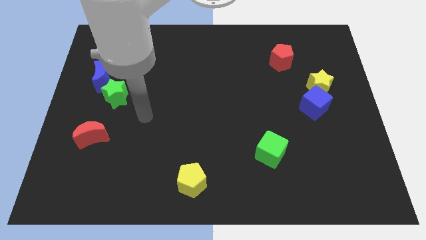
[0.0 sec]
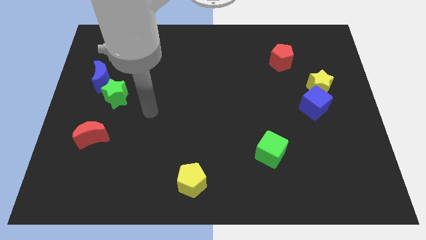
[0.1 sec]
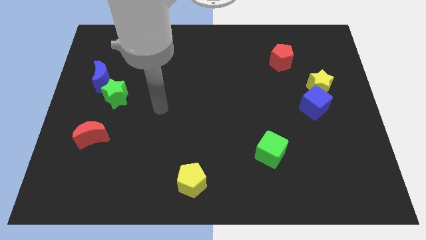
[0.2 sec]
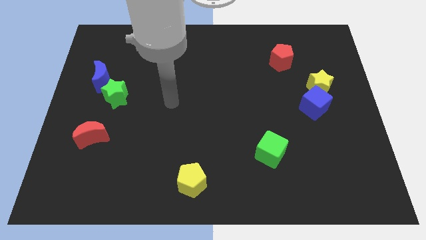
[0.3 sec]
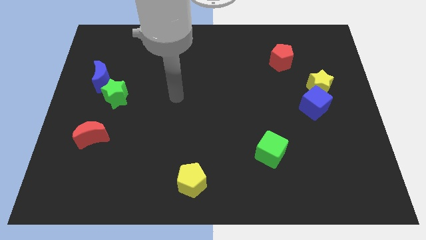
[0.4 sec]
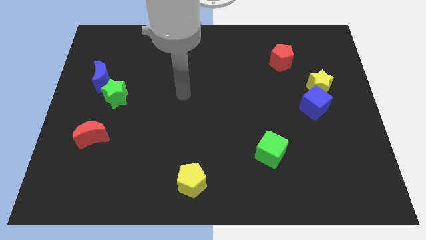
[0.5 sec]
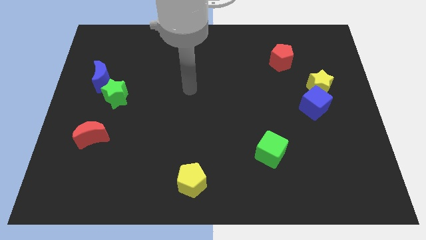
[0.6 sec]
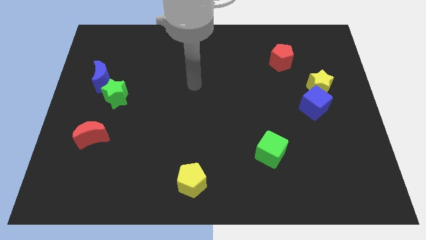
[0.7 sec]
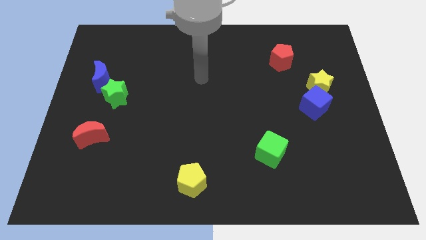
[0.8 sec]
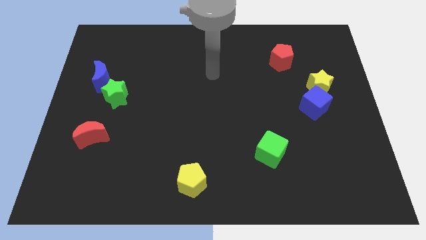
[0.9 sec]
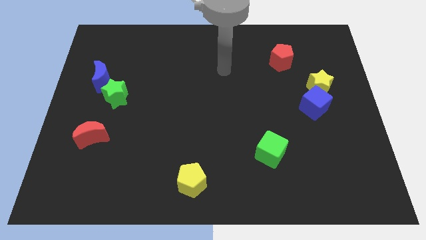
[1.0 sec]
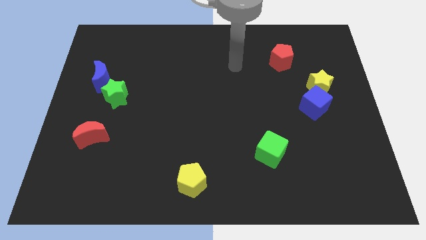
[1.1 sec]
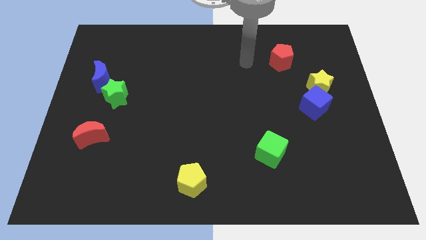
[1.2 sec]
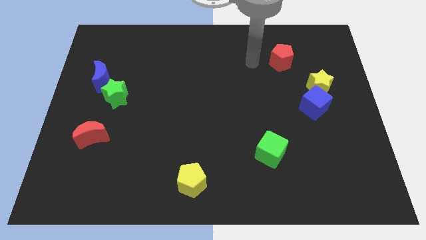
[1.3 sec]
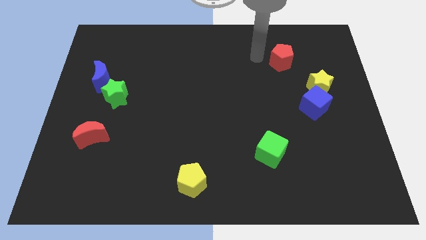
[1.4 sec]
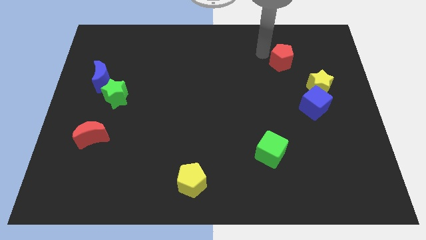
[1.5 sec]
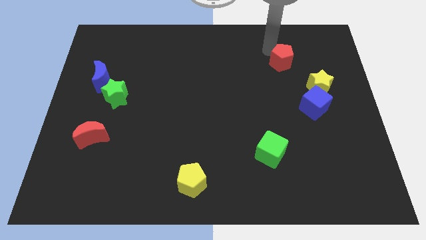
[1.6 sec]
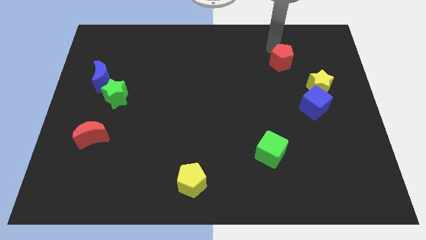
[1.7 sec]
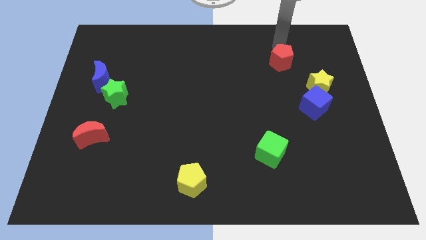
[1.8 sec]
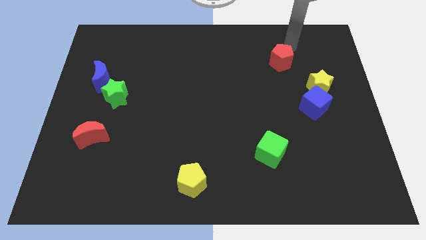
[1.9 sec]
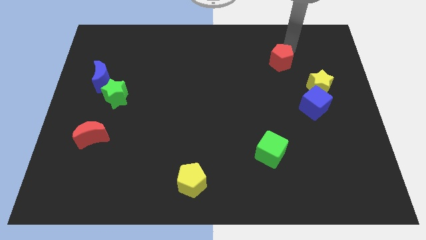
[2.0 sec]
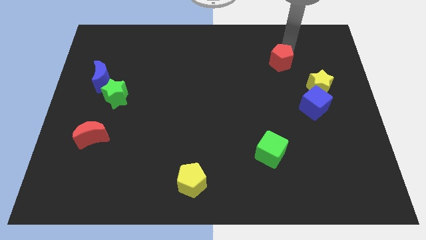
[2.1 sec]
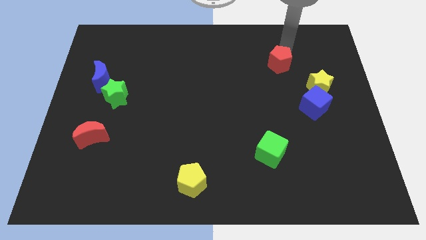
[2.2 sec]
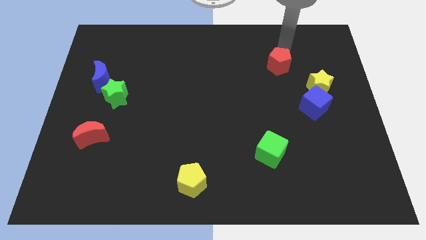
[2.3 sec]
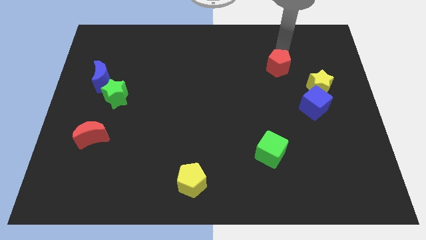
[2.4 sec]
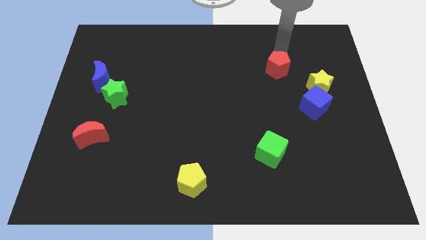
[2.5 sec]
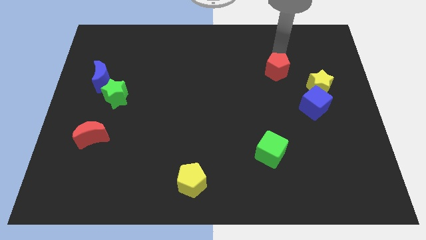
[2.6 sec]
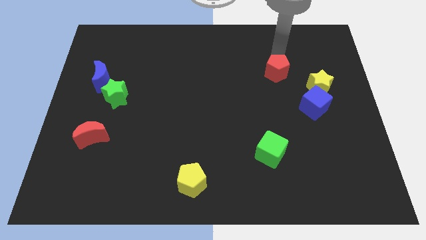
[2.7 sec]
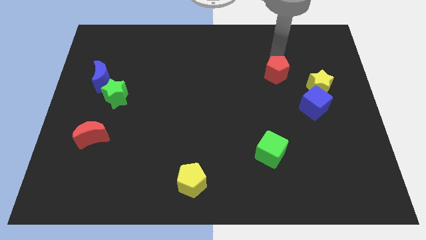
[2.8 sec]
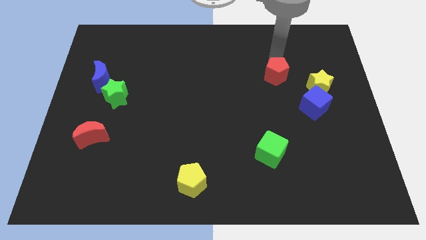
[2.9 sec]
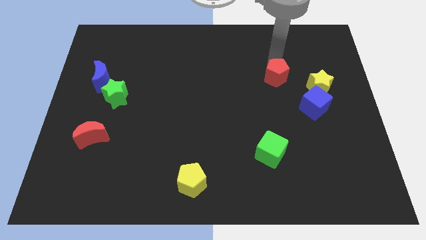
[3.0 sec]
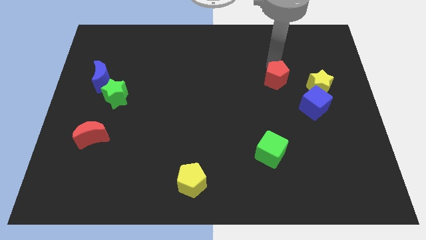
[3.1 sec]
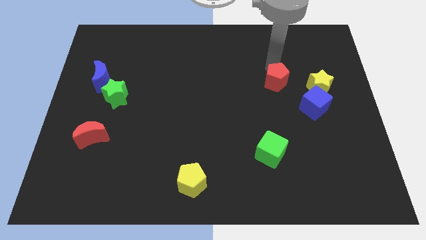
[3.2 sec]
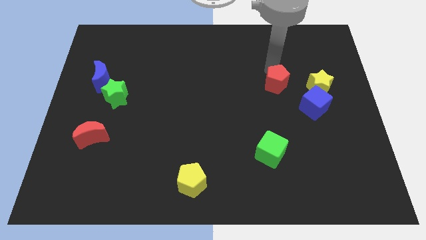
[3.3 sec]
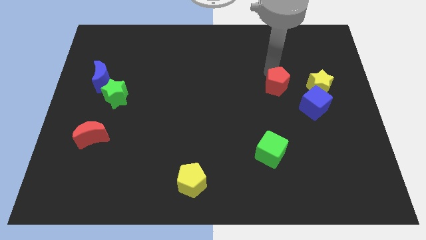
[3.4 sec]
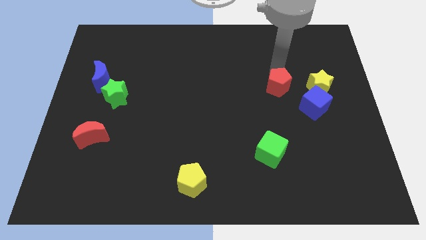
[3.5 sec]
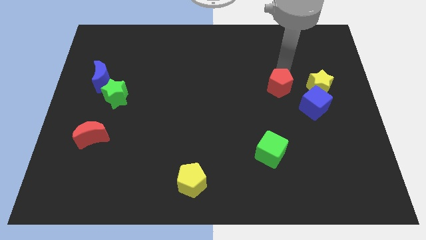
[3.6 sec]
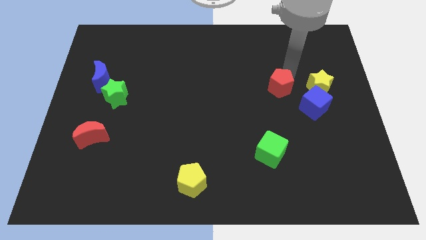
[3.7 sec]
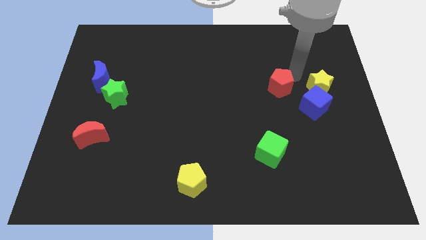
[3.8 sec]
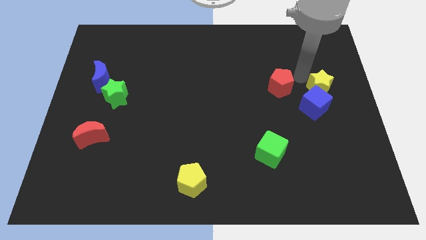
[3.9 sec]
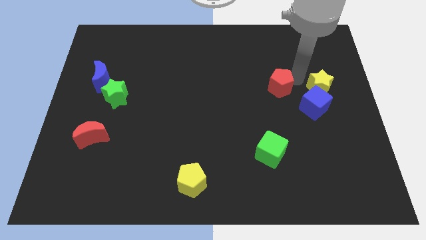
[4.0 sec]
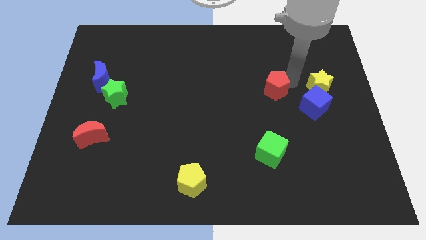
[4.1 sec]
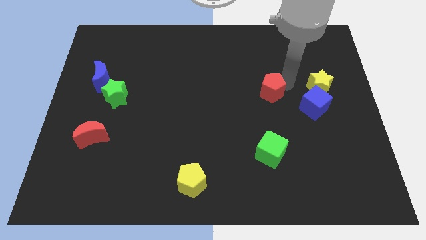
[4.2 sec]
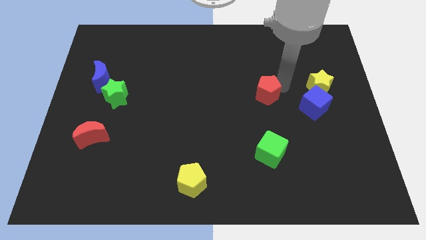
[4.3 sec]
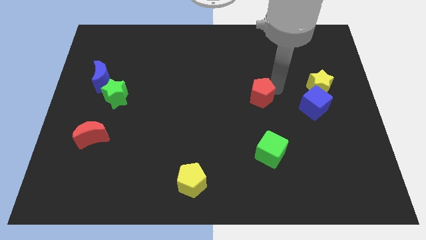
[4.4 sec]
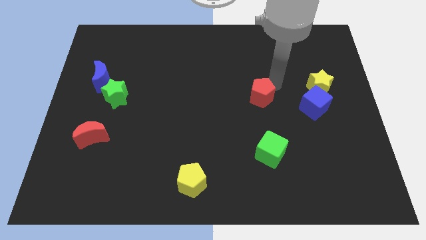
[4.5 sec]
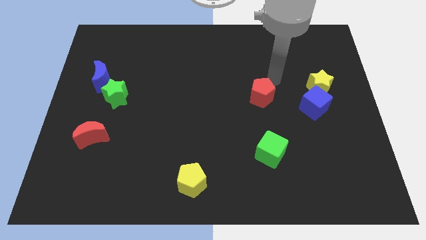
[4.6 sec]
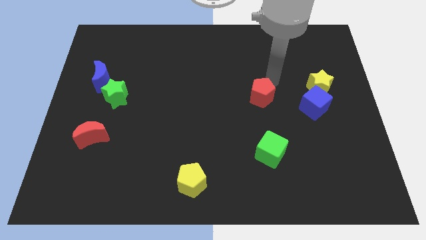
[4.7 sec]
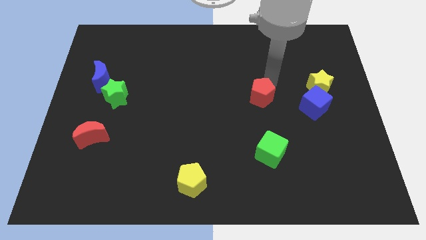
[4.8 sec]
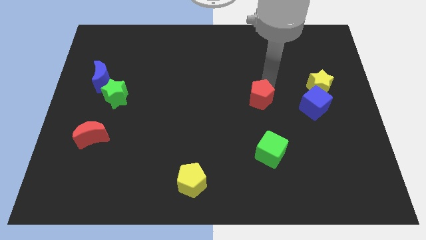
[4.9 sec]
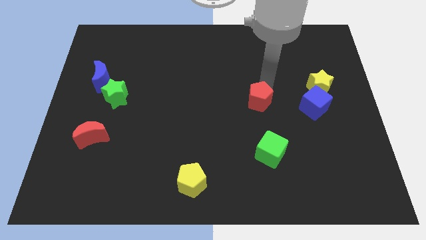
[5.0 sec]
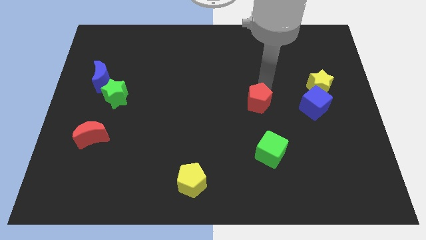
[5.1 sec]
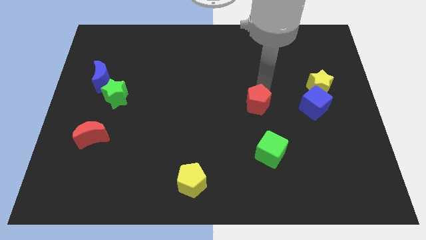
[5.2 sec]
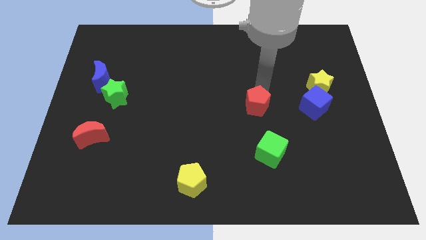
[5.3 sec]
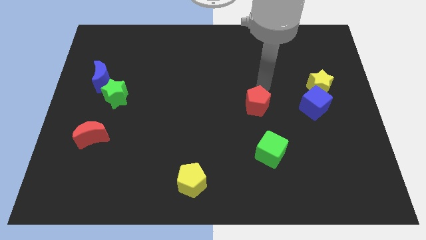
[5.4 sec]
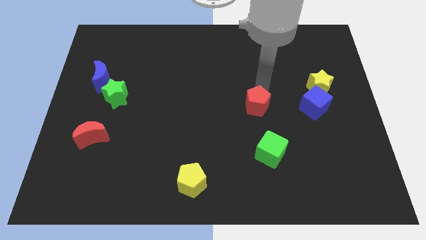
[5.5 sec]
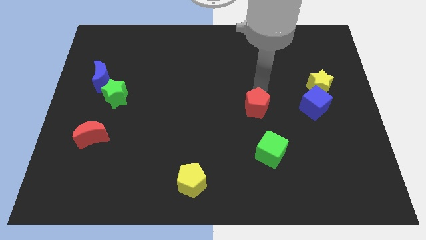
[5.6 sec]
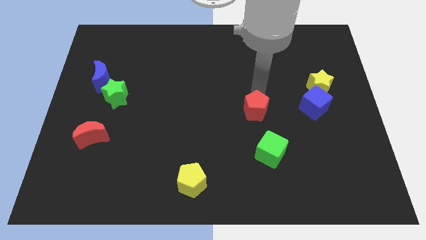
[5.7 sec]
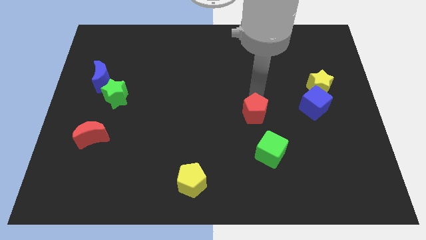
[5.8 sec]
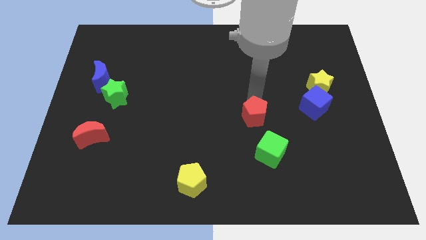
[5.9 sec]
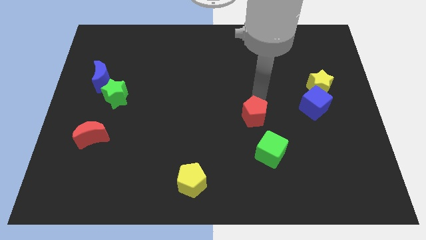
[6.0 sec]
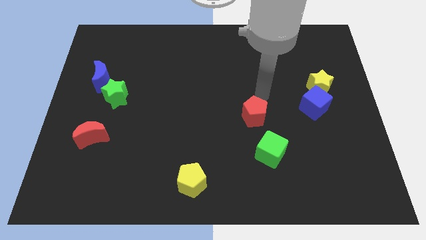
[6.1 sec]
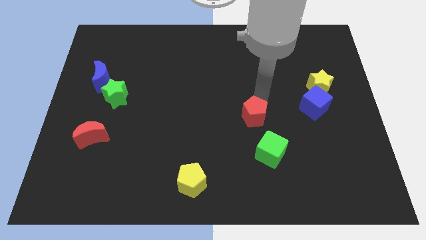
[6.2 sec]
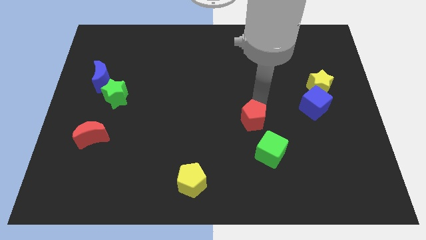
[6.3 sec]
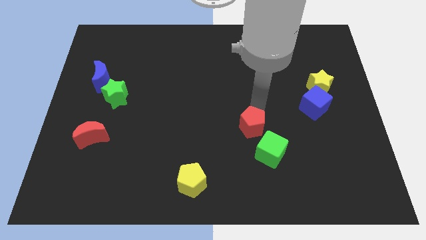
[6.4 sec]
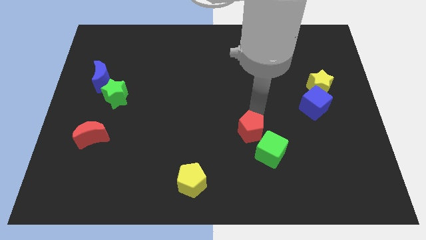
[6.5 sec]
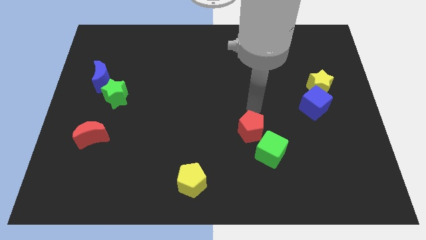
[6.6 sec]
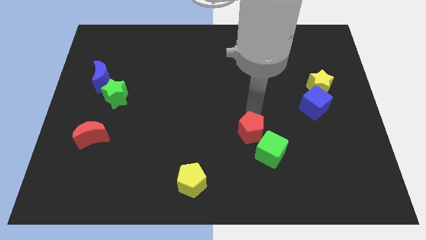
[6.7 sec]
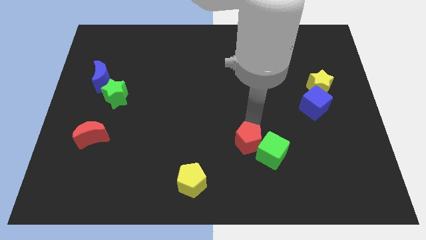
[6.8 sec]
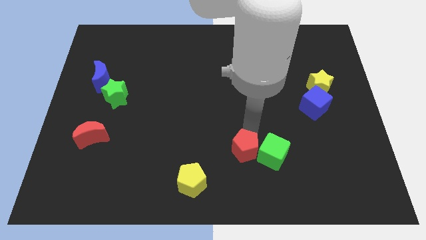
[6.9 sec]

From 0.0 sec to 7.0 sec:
push the red pentagon to the bottom left side of the green cube

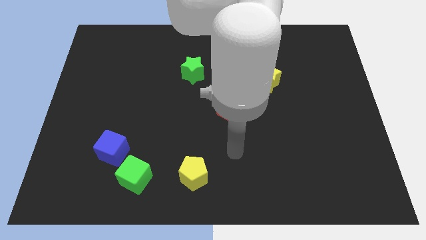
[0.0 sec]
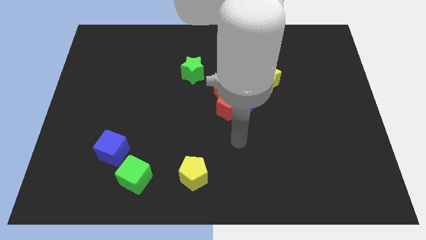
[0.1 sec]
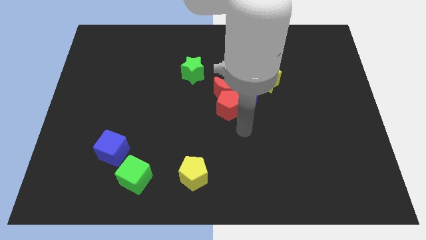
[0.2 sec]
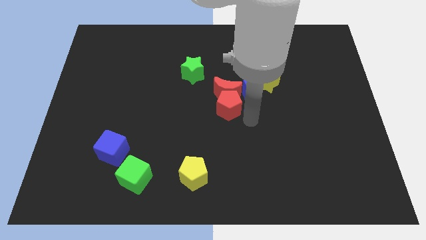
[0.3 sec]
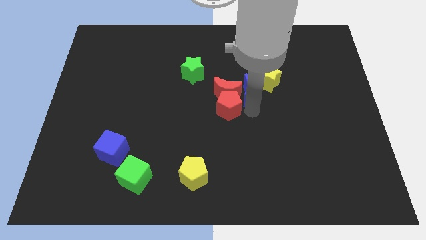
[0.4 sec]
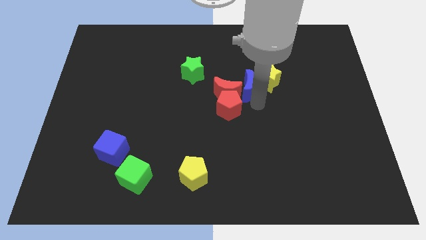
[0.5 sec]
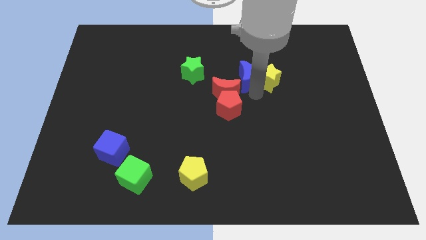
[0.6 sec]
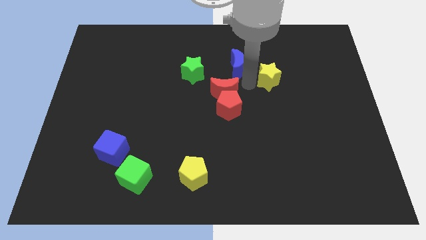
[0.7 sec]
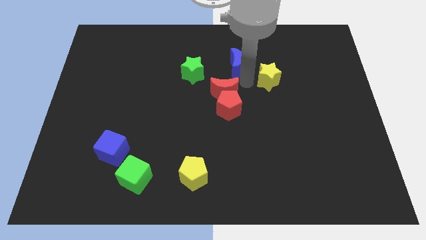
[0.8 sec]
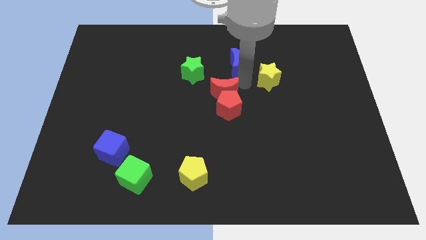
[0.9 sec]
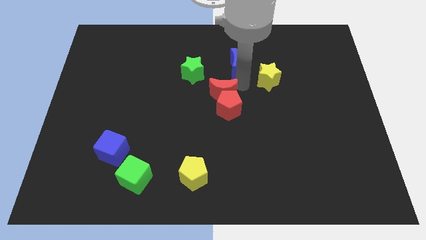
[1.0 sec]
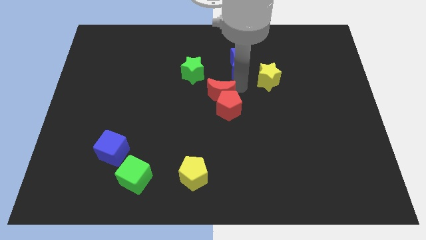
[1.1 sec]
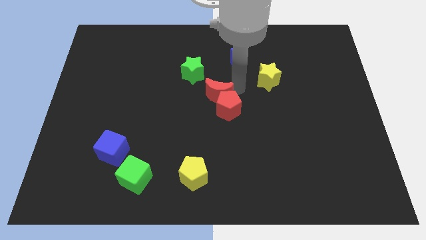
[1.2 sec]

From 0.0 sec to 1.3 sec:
slide the red moon left of the red pentagon
